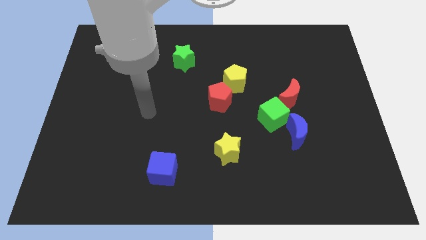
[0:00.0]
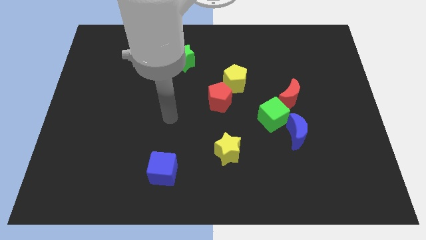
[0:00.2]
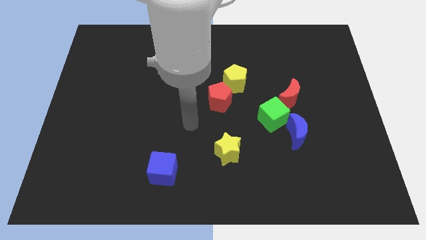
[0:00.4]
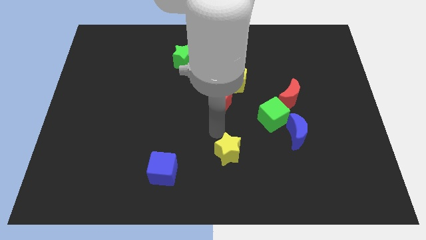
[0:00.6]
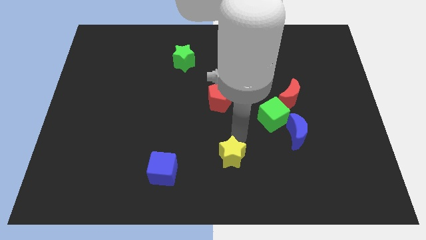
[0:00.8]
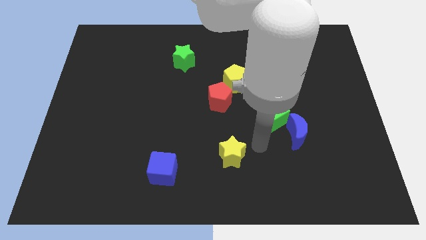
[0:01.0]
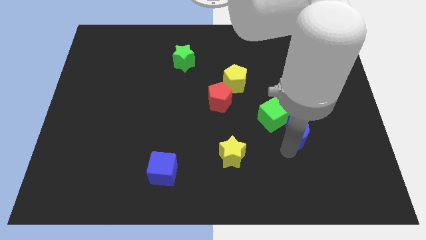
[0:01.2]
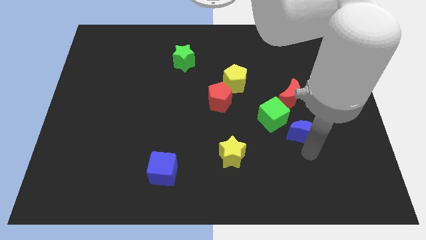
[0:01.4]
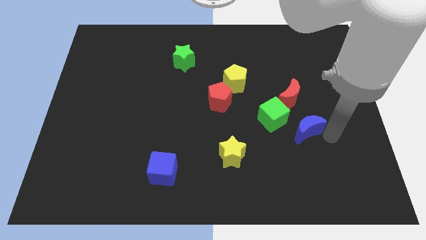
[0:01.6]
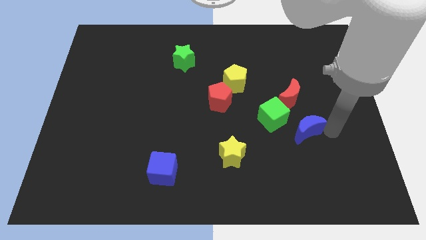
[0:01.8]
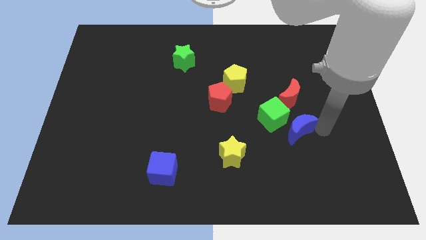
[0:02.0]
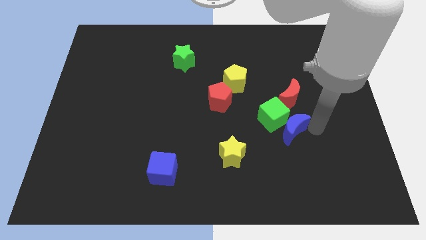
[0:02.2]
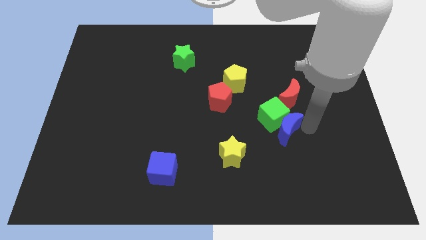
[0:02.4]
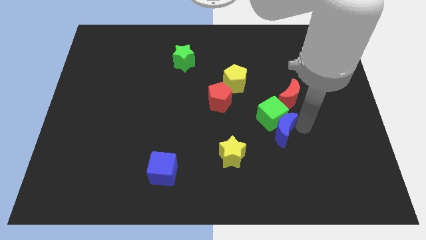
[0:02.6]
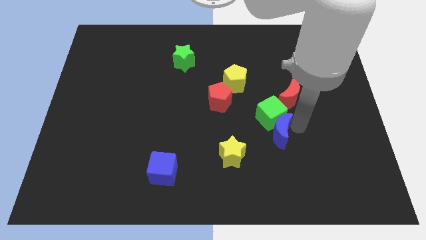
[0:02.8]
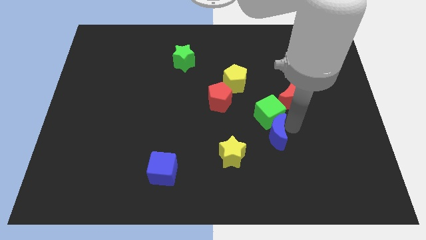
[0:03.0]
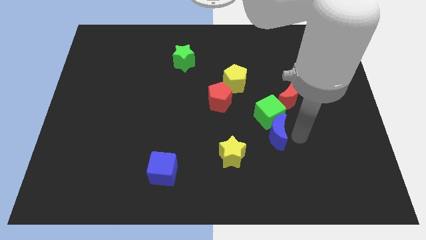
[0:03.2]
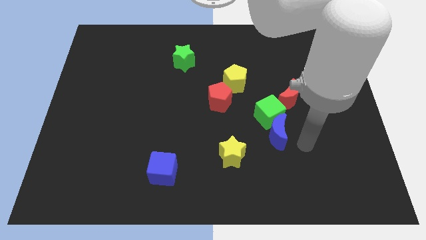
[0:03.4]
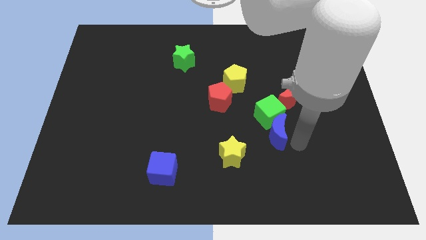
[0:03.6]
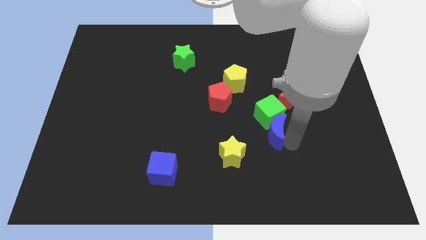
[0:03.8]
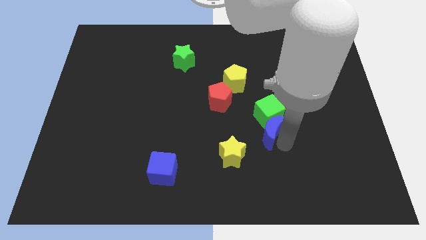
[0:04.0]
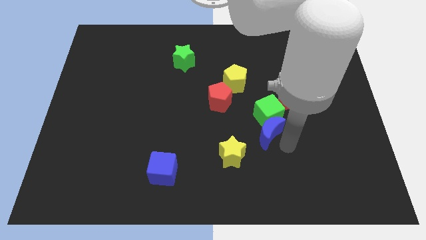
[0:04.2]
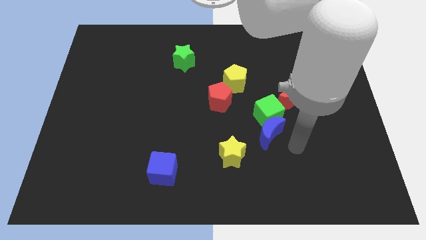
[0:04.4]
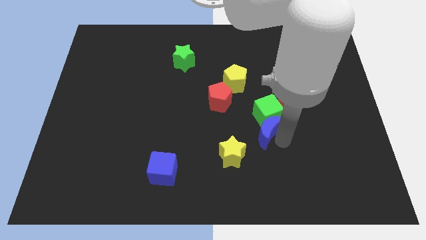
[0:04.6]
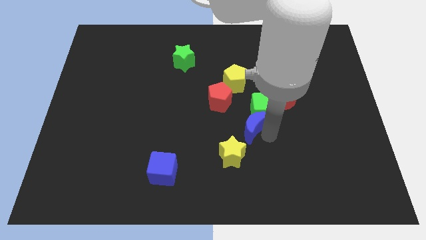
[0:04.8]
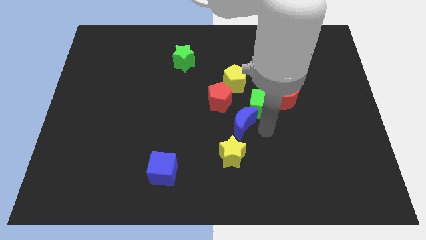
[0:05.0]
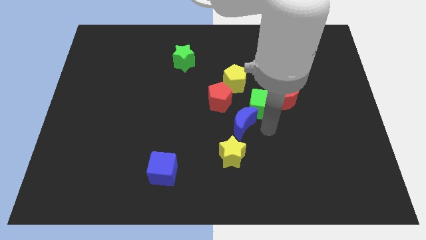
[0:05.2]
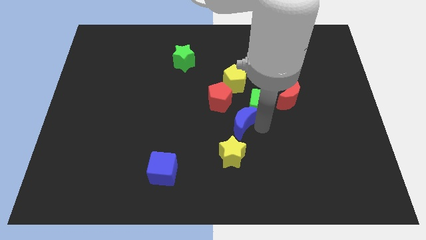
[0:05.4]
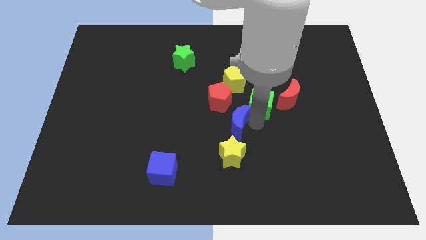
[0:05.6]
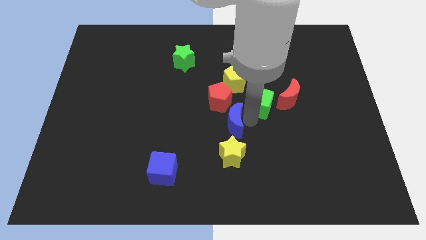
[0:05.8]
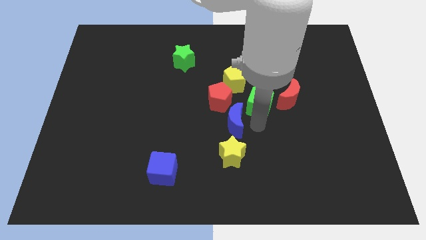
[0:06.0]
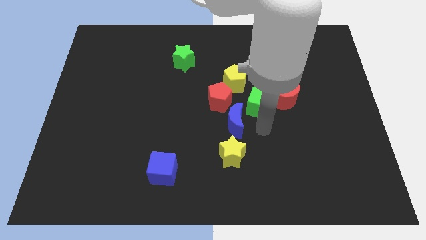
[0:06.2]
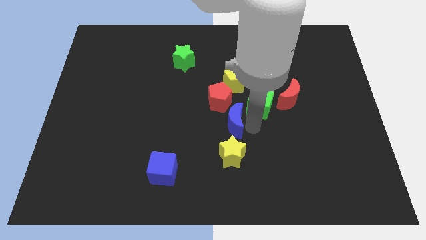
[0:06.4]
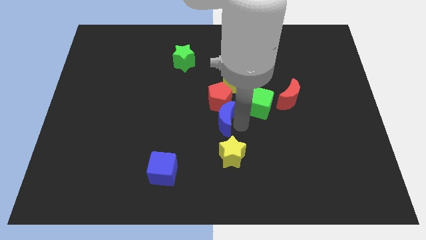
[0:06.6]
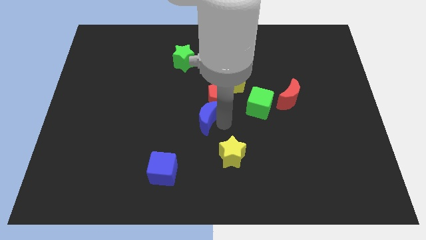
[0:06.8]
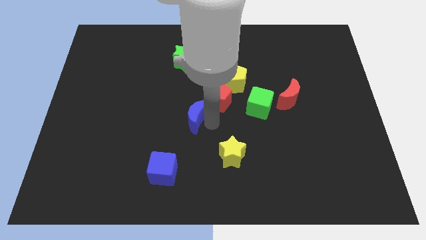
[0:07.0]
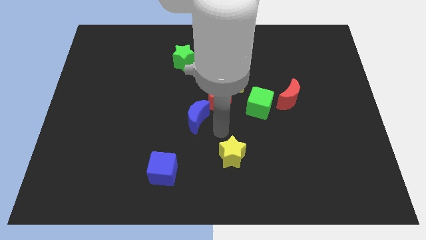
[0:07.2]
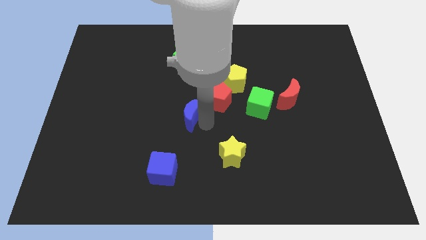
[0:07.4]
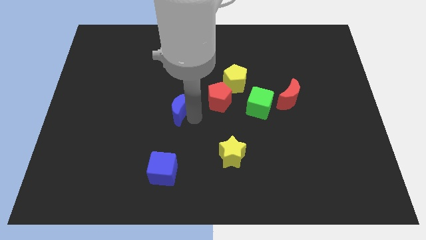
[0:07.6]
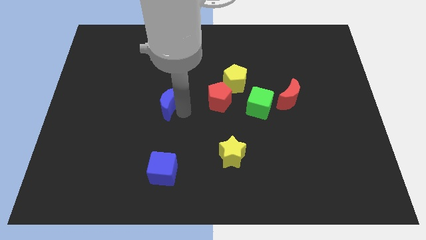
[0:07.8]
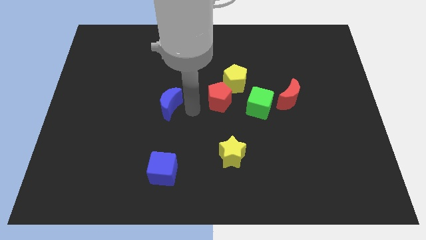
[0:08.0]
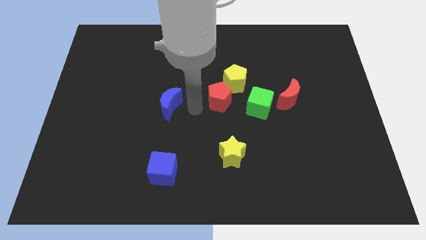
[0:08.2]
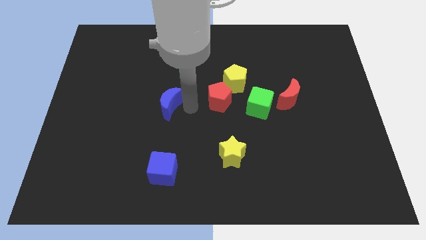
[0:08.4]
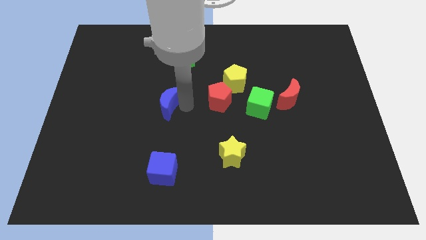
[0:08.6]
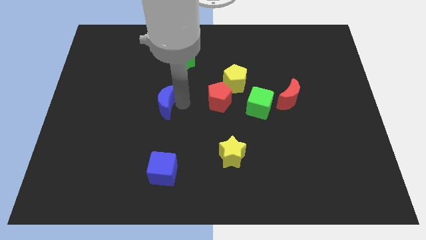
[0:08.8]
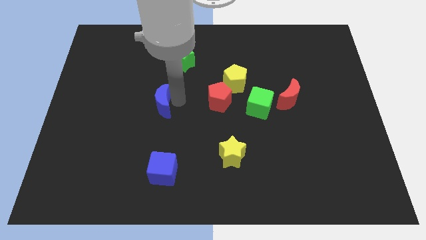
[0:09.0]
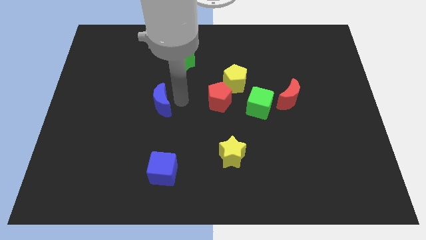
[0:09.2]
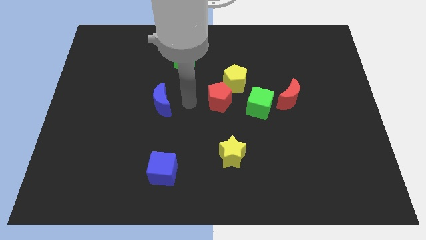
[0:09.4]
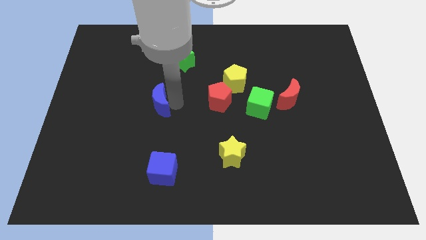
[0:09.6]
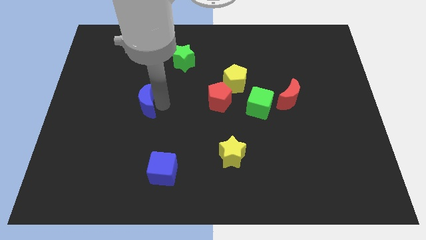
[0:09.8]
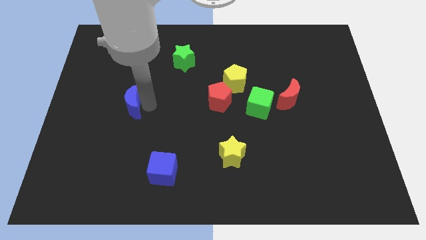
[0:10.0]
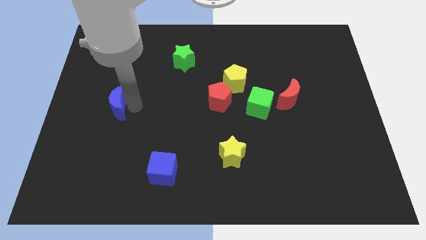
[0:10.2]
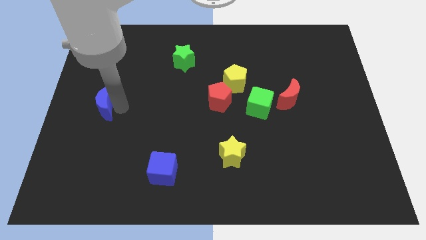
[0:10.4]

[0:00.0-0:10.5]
move the blue moon to the left side of the board
